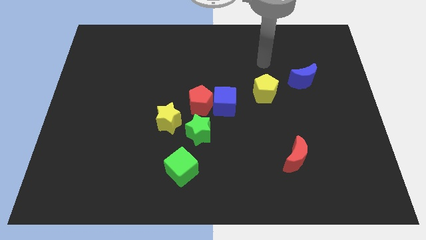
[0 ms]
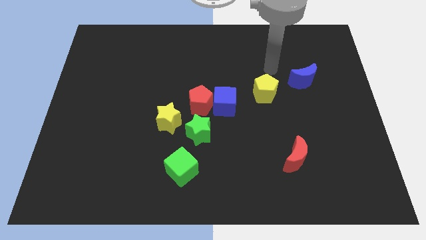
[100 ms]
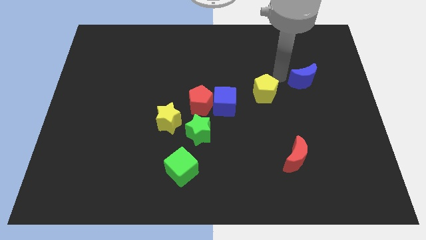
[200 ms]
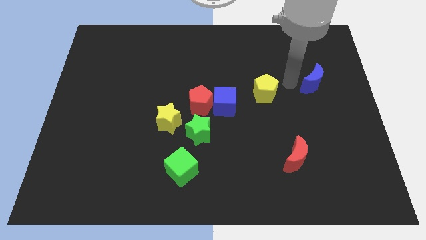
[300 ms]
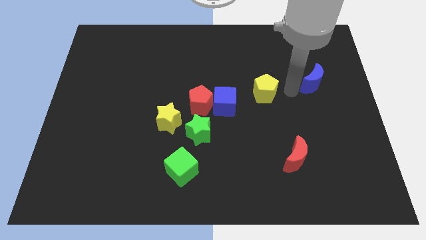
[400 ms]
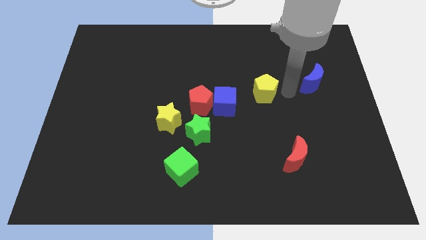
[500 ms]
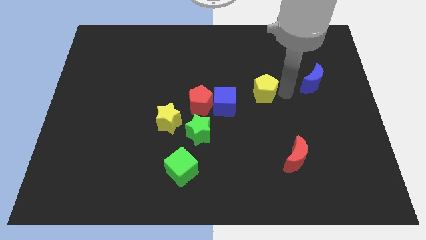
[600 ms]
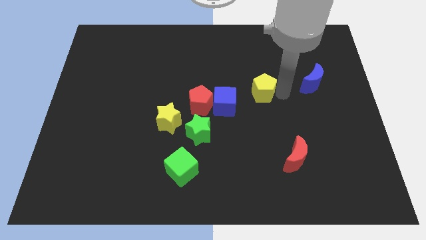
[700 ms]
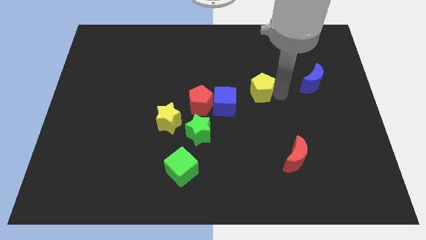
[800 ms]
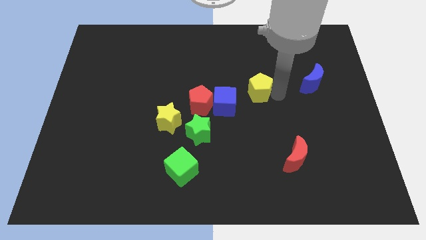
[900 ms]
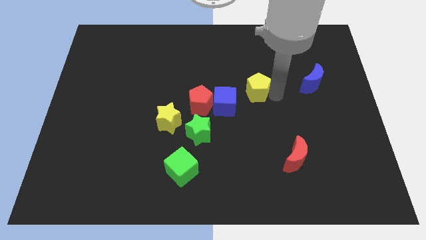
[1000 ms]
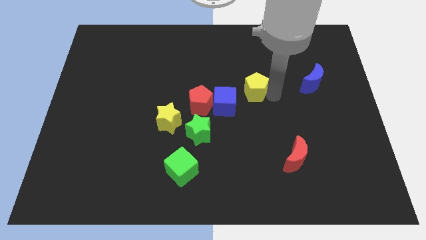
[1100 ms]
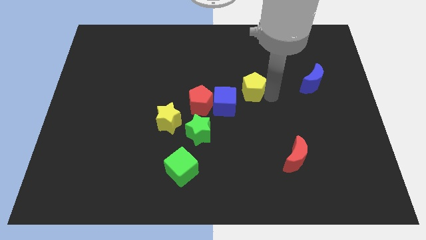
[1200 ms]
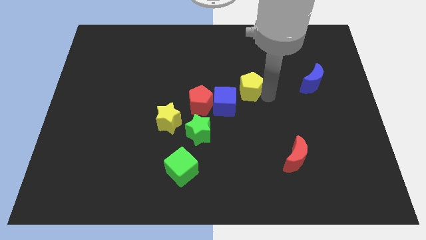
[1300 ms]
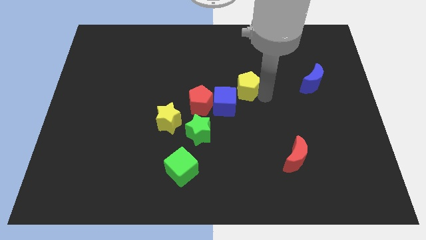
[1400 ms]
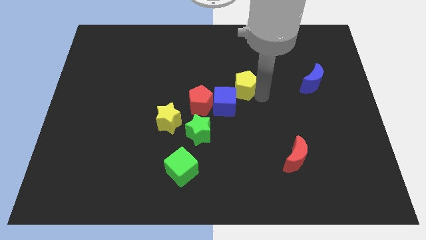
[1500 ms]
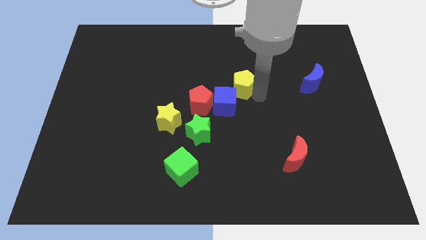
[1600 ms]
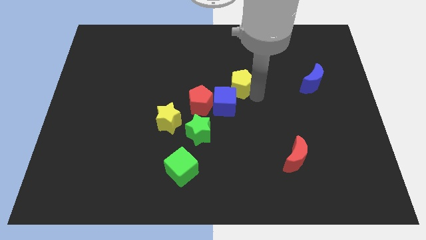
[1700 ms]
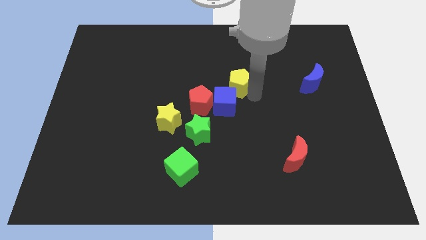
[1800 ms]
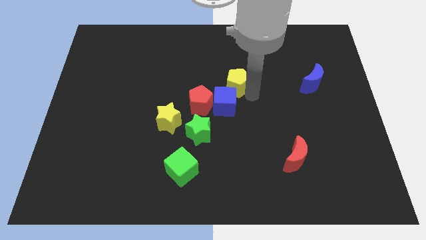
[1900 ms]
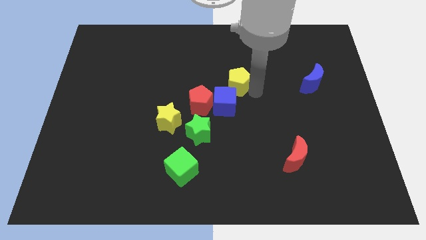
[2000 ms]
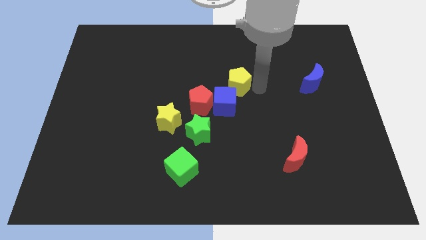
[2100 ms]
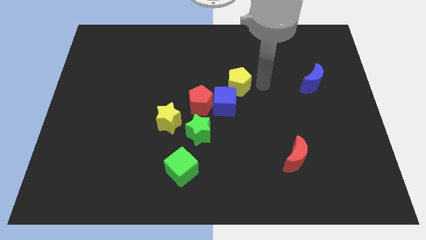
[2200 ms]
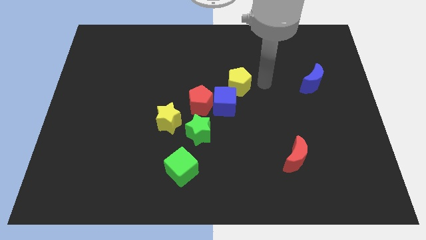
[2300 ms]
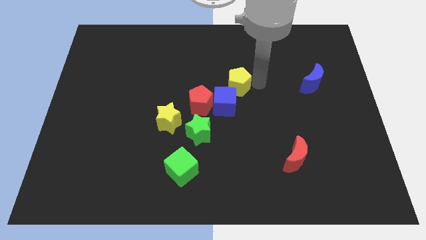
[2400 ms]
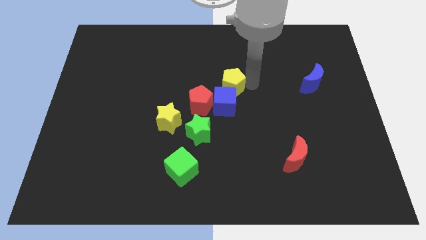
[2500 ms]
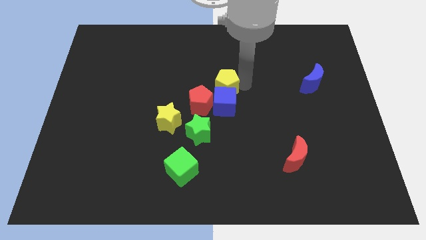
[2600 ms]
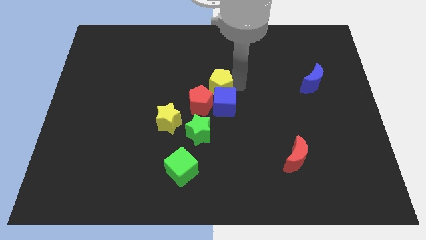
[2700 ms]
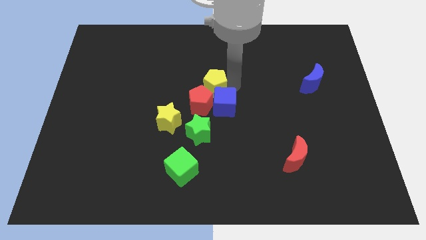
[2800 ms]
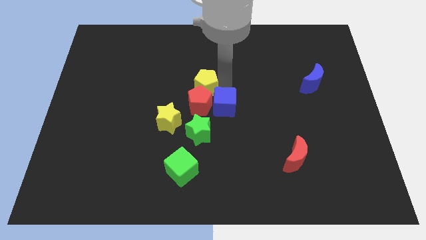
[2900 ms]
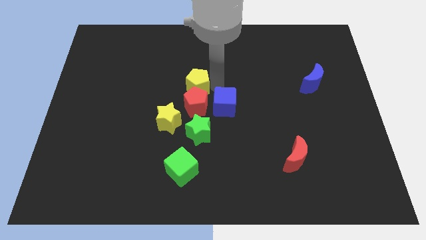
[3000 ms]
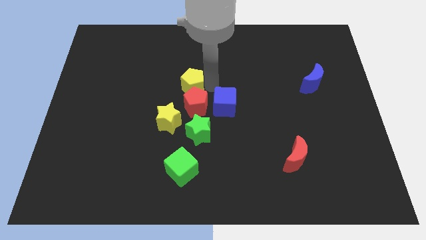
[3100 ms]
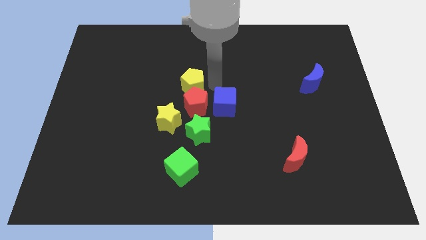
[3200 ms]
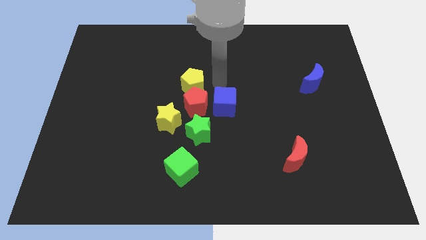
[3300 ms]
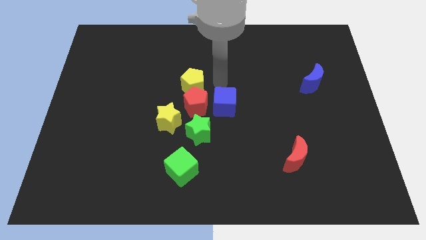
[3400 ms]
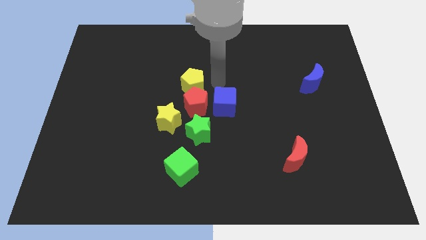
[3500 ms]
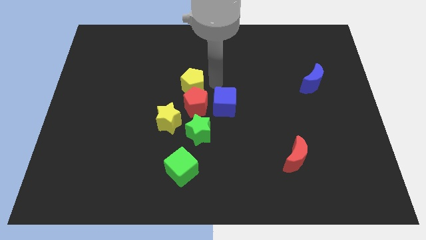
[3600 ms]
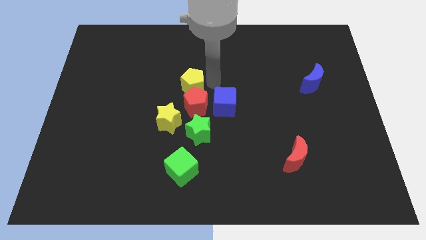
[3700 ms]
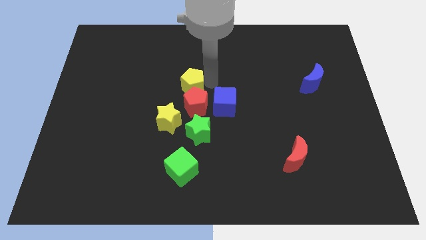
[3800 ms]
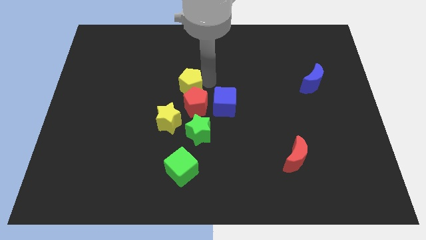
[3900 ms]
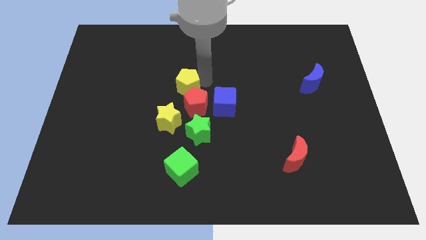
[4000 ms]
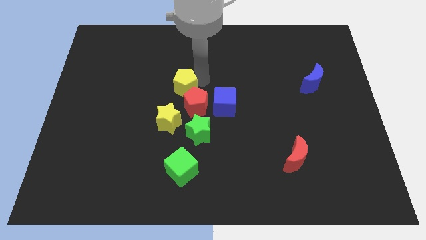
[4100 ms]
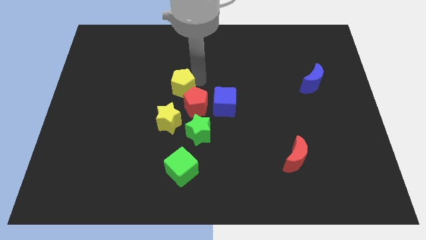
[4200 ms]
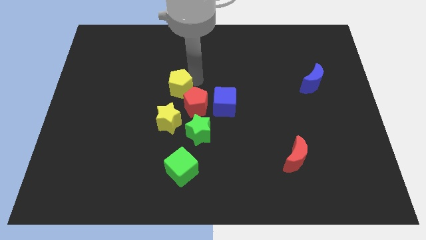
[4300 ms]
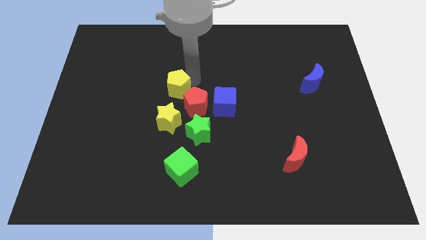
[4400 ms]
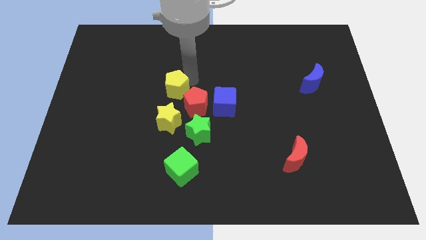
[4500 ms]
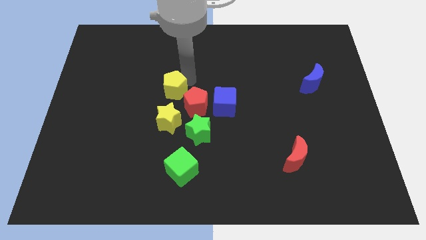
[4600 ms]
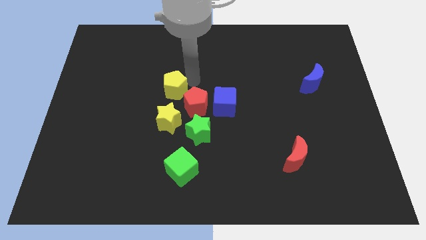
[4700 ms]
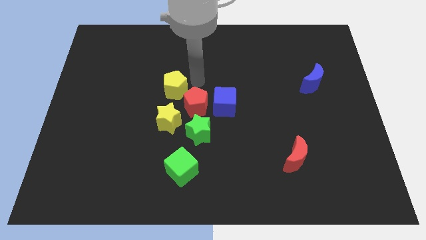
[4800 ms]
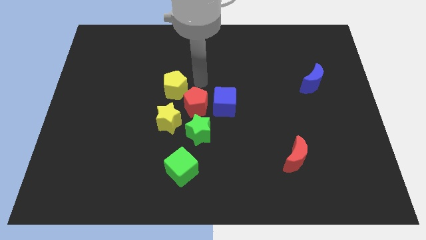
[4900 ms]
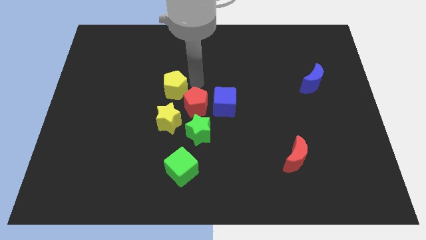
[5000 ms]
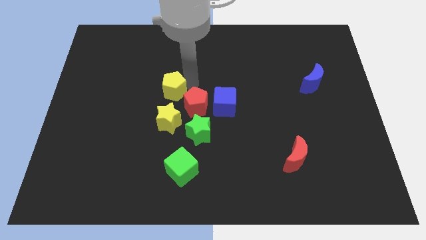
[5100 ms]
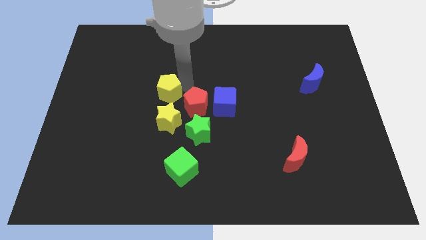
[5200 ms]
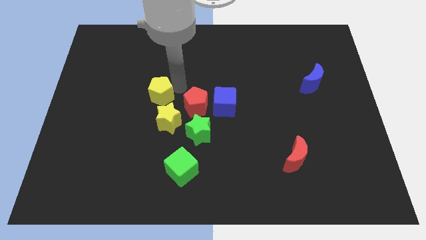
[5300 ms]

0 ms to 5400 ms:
move the yellow pentagon to the top left of the yellow star

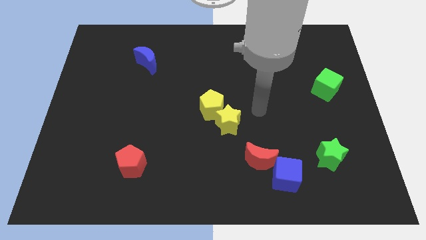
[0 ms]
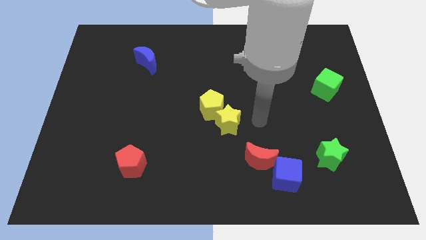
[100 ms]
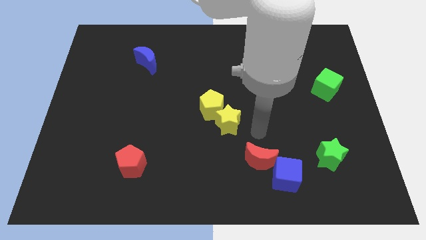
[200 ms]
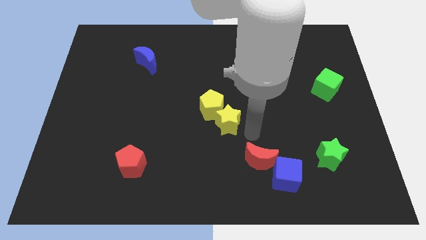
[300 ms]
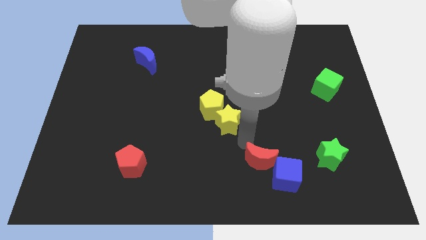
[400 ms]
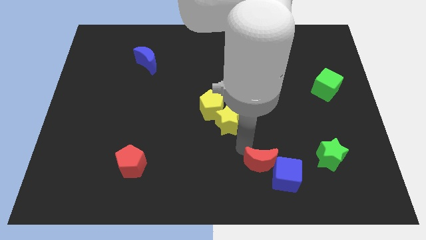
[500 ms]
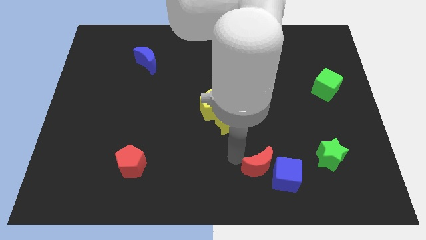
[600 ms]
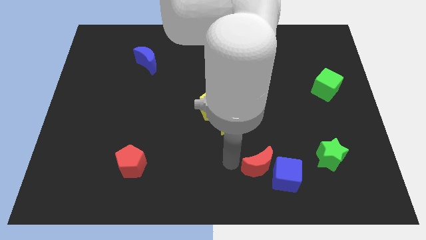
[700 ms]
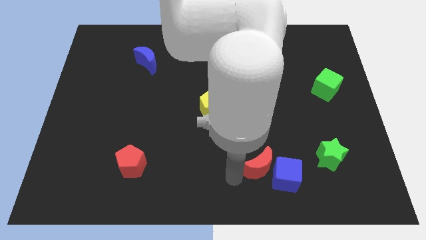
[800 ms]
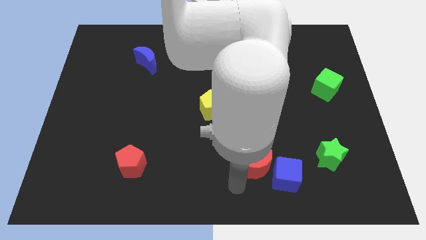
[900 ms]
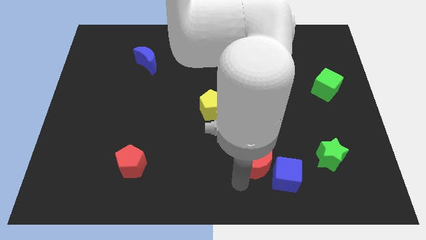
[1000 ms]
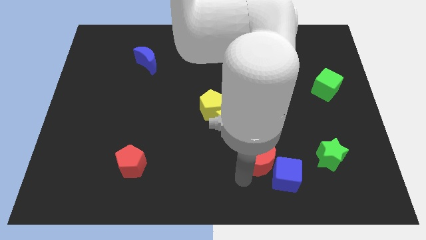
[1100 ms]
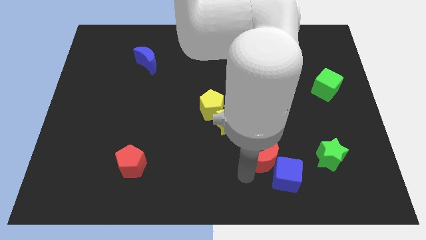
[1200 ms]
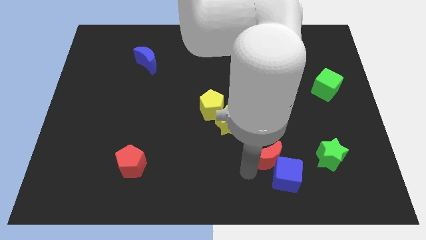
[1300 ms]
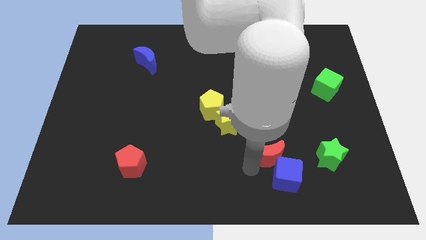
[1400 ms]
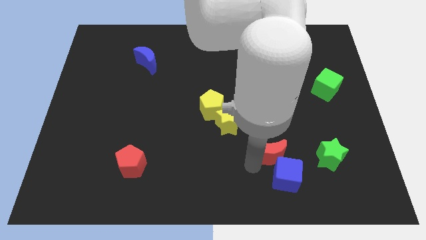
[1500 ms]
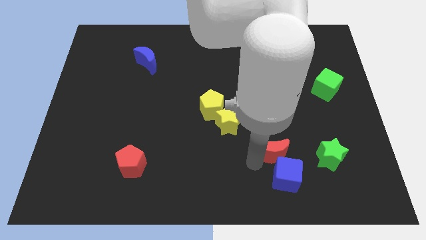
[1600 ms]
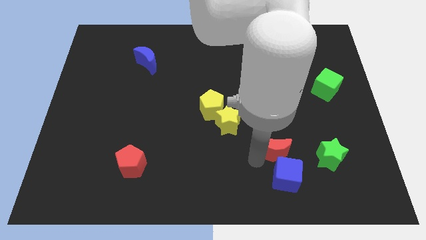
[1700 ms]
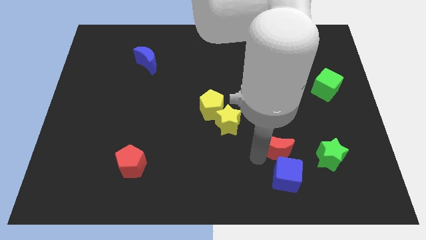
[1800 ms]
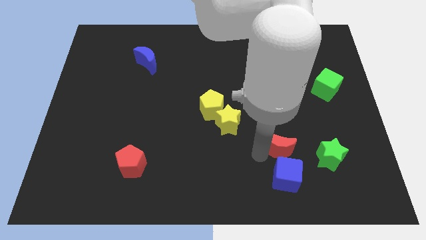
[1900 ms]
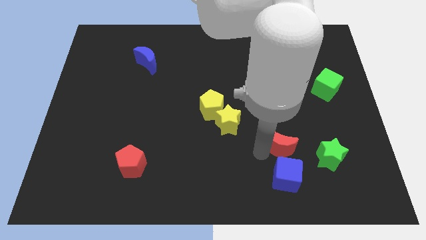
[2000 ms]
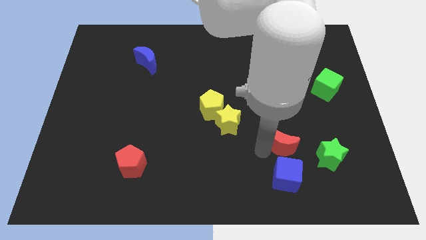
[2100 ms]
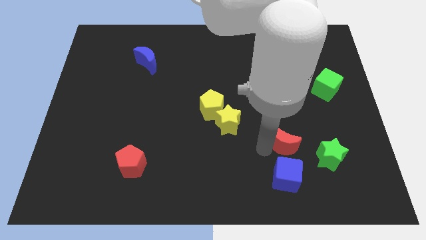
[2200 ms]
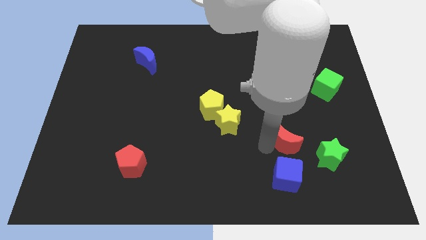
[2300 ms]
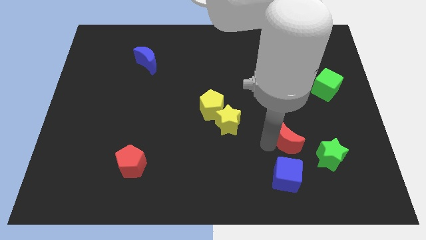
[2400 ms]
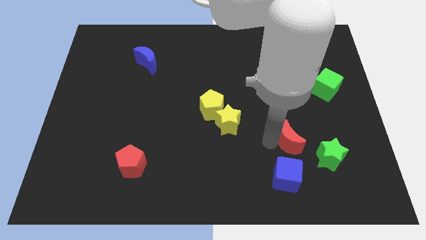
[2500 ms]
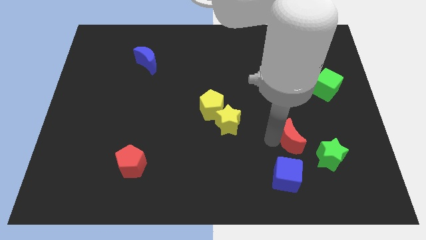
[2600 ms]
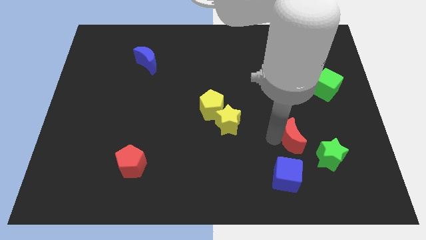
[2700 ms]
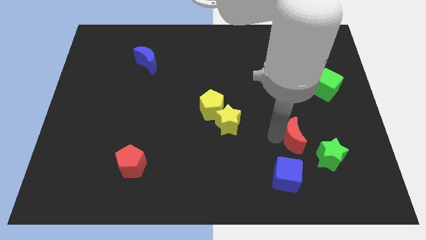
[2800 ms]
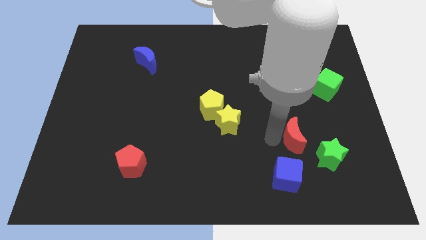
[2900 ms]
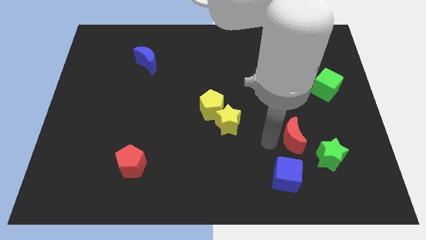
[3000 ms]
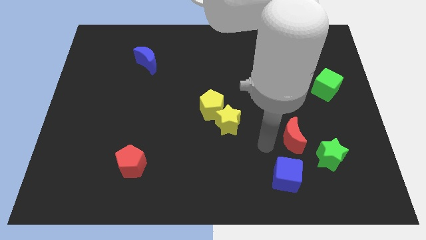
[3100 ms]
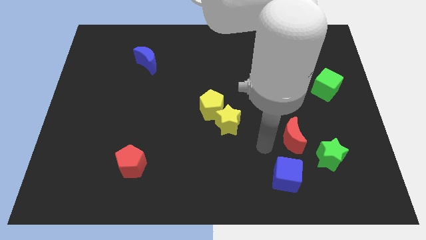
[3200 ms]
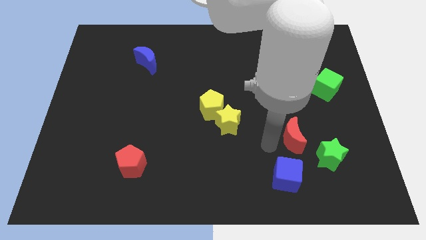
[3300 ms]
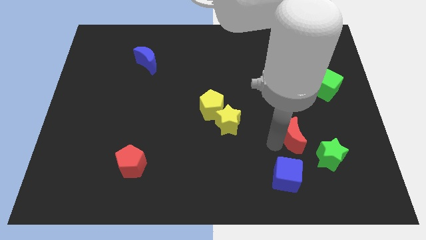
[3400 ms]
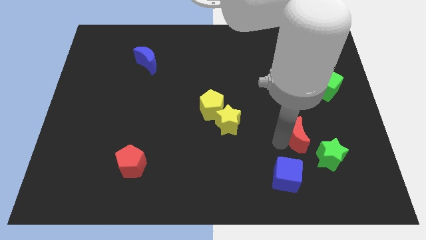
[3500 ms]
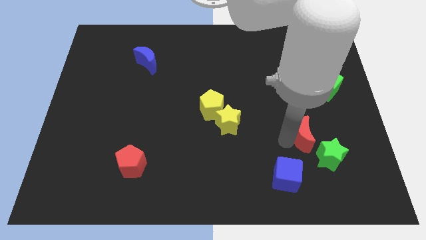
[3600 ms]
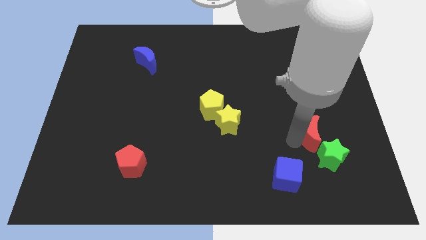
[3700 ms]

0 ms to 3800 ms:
put the red moon to the top side of the green star
